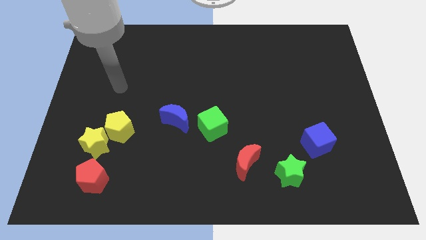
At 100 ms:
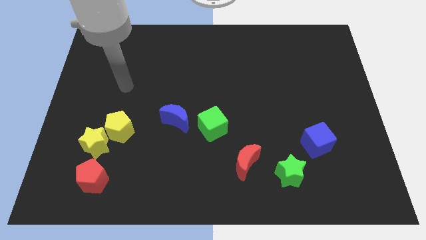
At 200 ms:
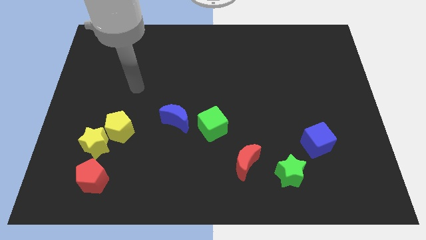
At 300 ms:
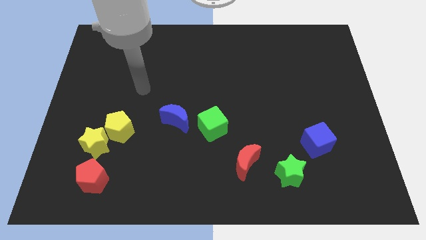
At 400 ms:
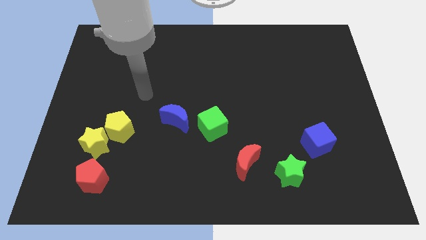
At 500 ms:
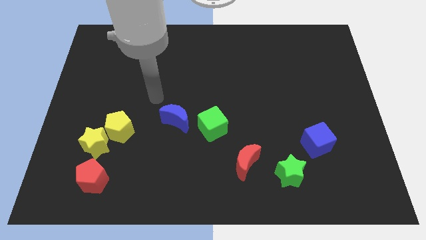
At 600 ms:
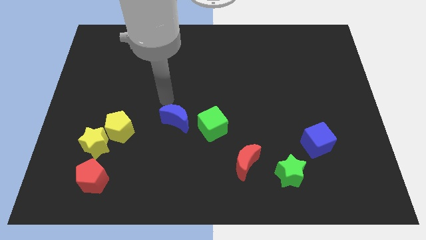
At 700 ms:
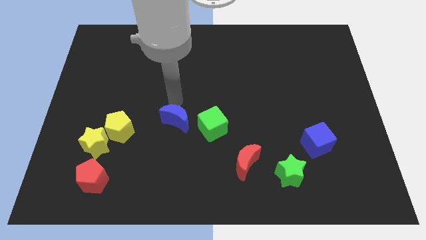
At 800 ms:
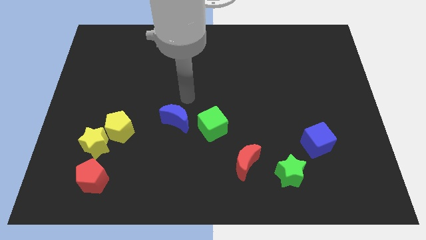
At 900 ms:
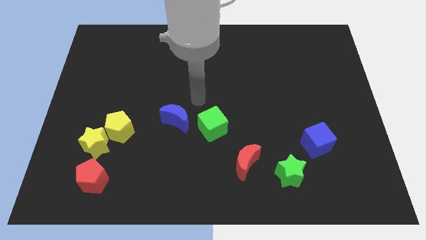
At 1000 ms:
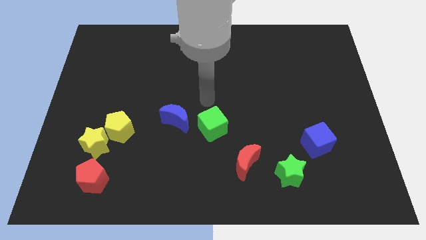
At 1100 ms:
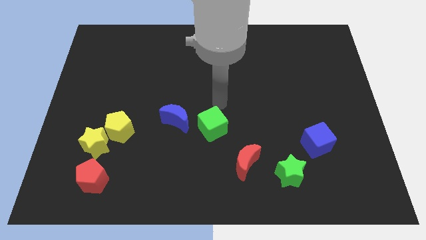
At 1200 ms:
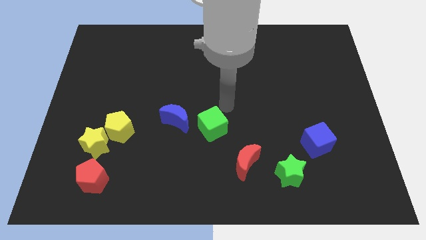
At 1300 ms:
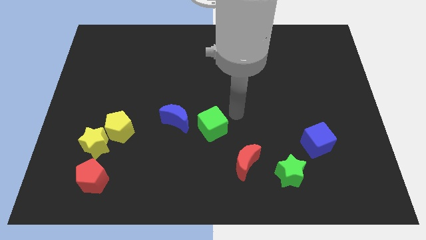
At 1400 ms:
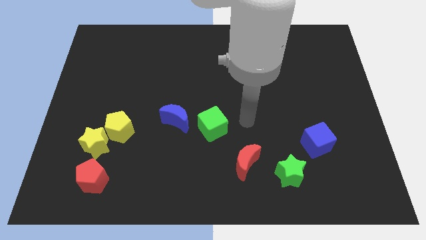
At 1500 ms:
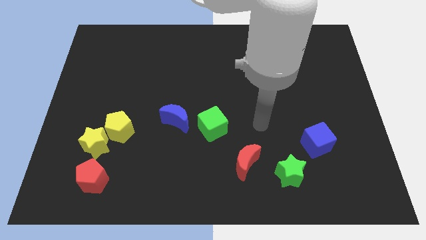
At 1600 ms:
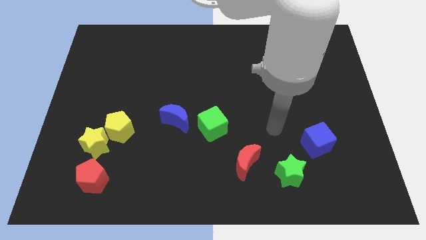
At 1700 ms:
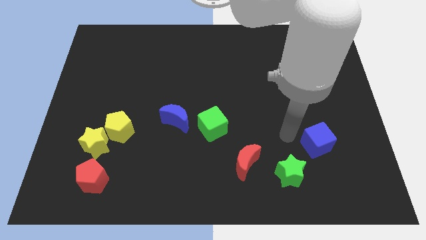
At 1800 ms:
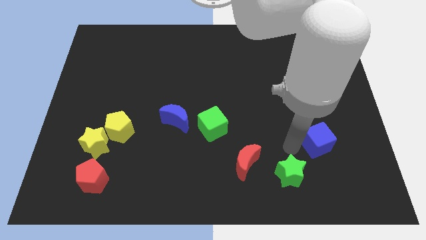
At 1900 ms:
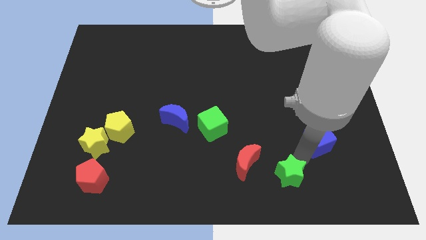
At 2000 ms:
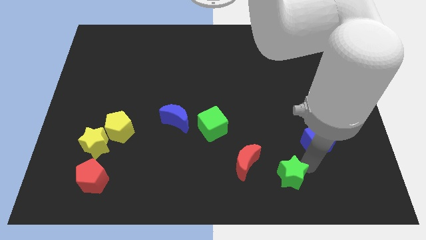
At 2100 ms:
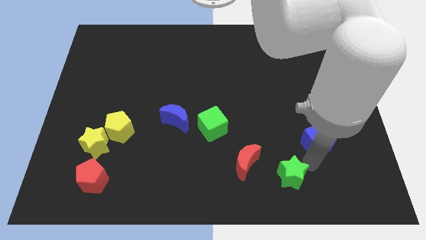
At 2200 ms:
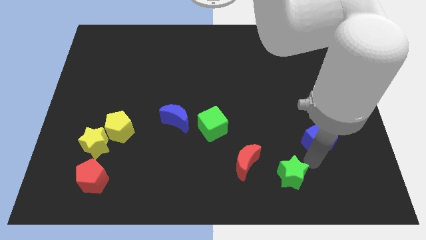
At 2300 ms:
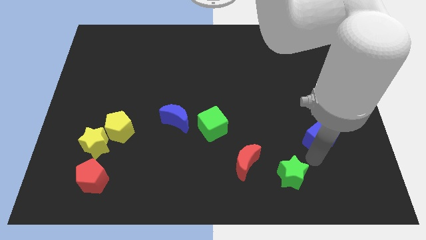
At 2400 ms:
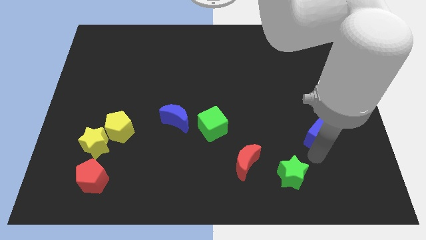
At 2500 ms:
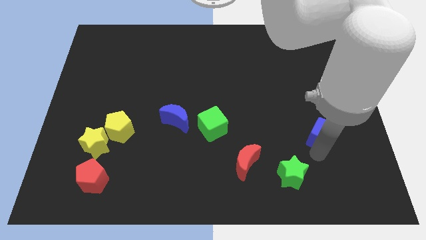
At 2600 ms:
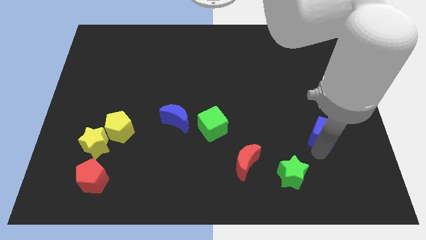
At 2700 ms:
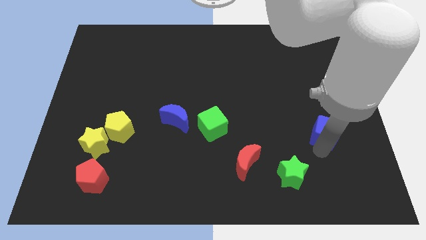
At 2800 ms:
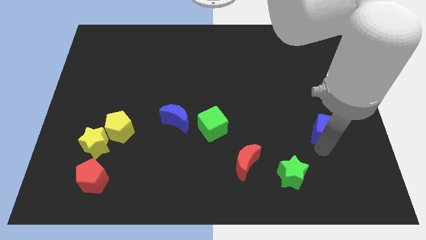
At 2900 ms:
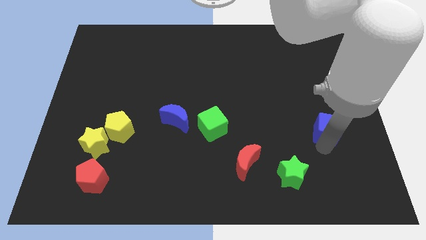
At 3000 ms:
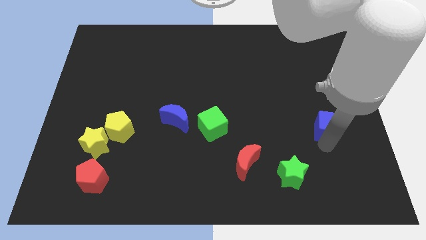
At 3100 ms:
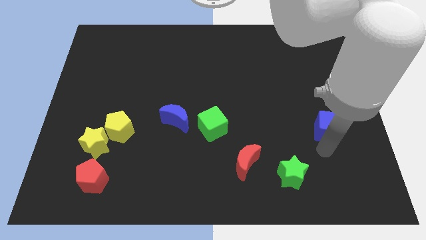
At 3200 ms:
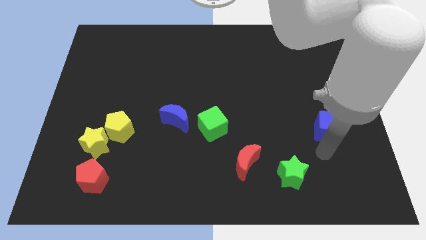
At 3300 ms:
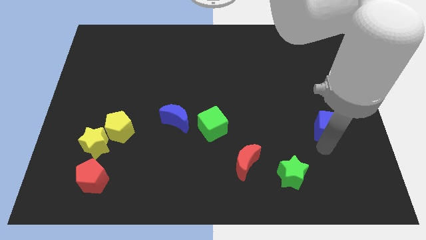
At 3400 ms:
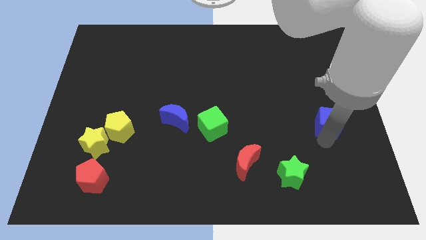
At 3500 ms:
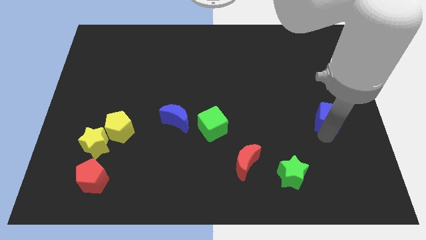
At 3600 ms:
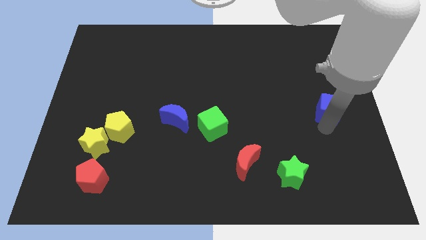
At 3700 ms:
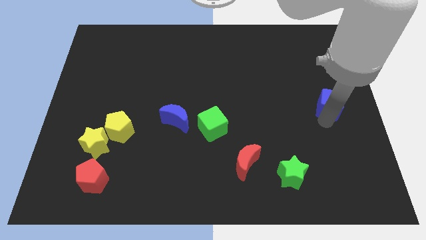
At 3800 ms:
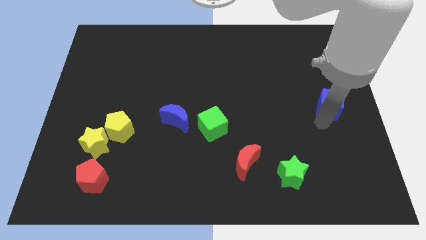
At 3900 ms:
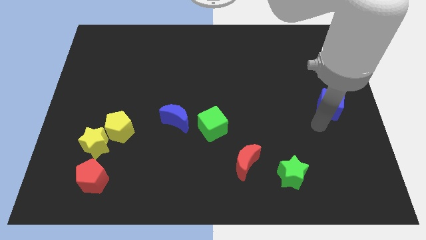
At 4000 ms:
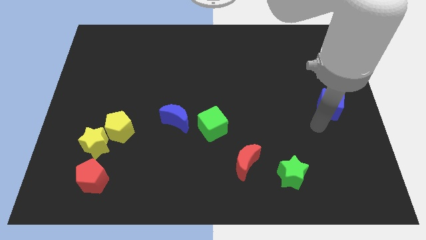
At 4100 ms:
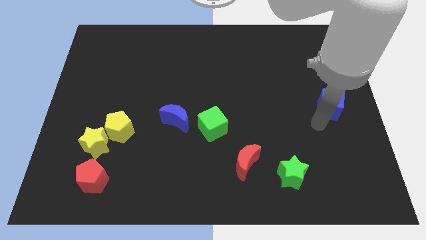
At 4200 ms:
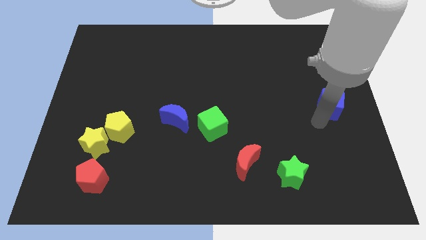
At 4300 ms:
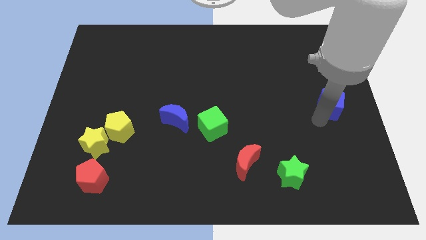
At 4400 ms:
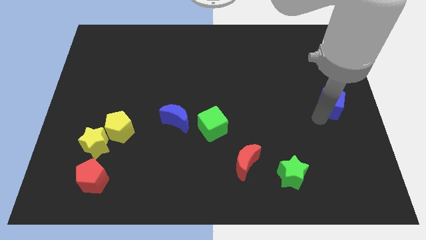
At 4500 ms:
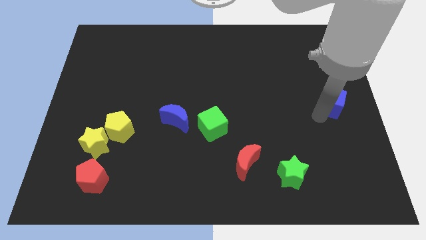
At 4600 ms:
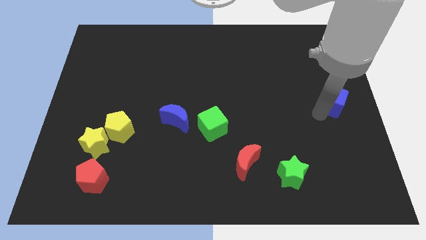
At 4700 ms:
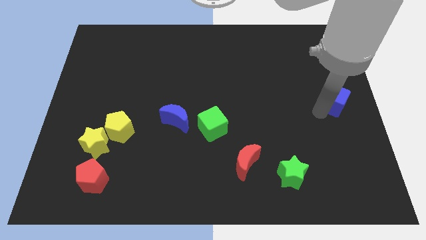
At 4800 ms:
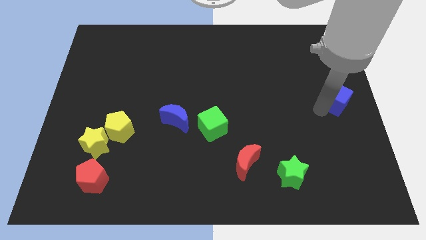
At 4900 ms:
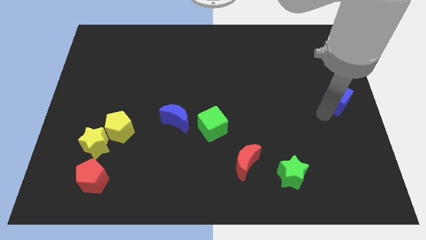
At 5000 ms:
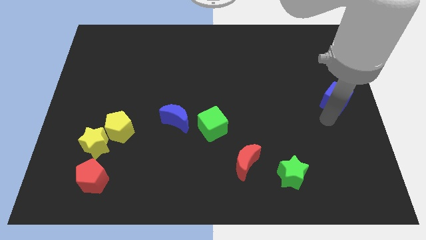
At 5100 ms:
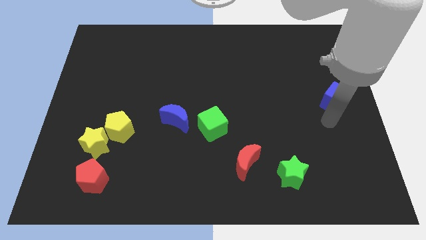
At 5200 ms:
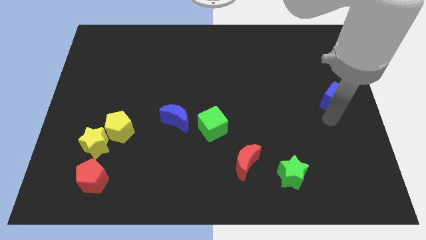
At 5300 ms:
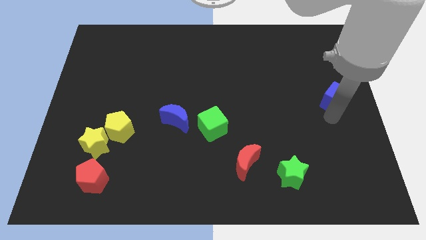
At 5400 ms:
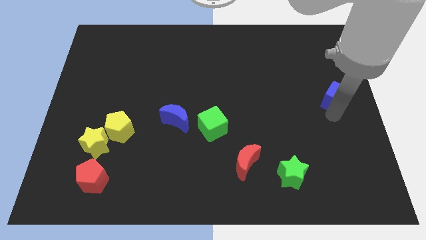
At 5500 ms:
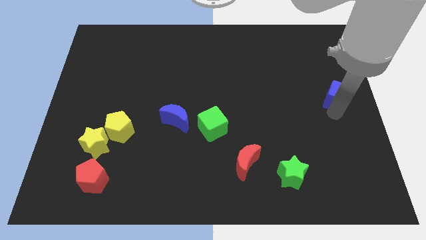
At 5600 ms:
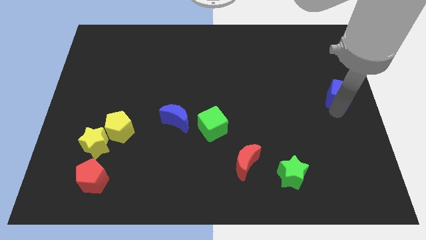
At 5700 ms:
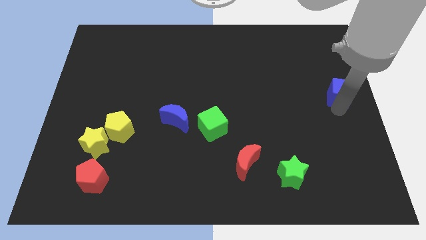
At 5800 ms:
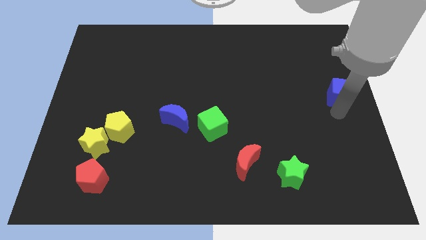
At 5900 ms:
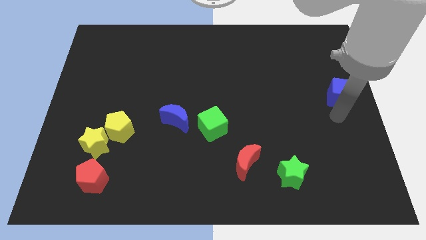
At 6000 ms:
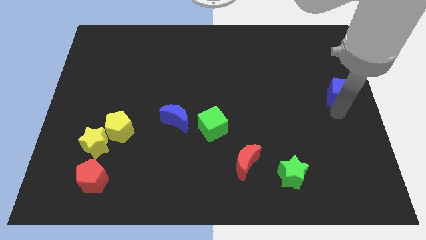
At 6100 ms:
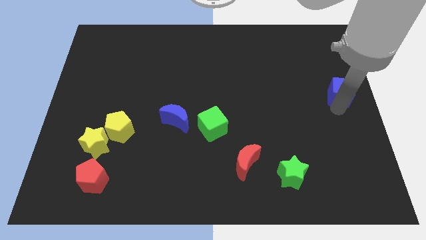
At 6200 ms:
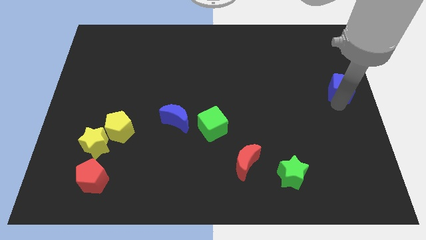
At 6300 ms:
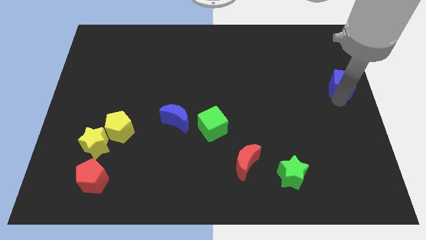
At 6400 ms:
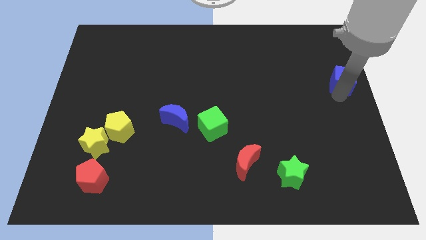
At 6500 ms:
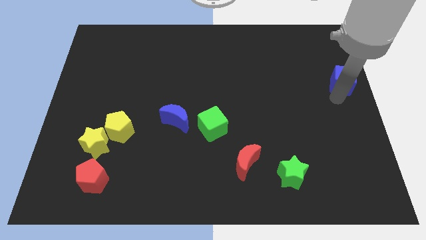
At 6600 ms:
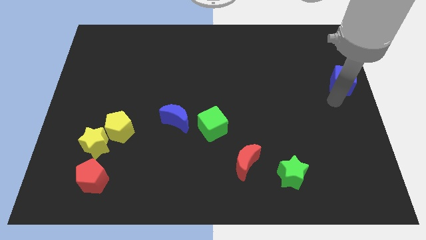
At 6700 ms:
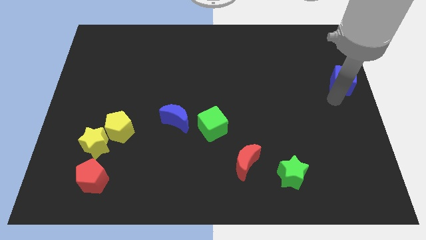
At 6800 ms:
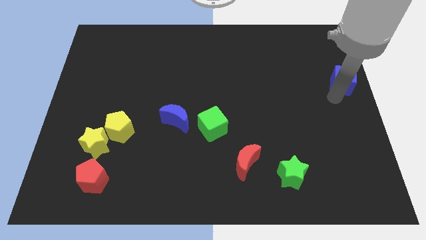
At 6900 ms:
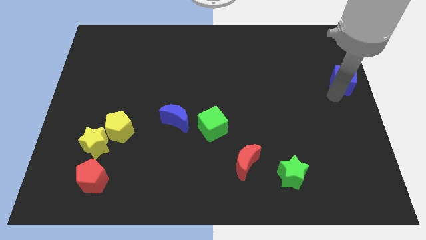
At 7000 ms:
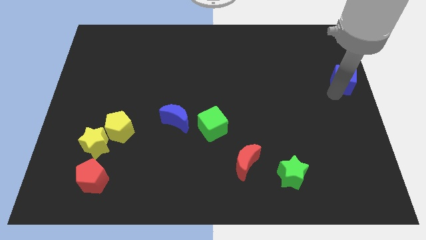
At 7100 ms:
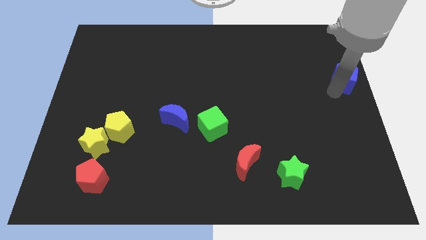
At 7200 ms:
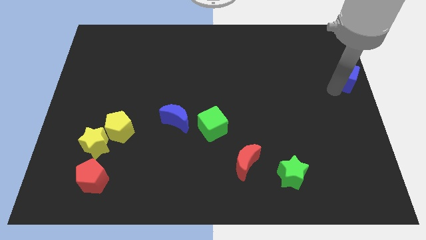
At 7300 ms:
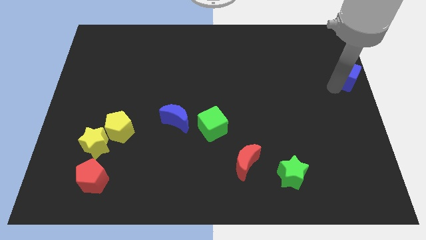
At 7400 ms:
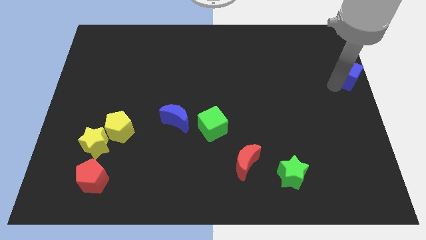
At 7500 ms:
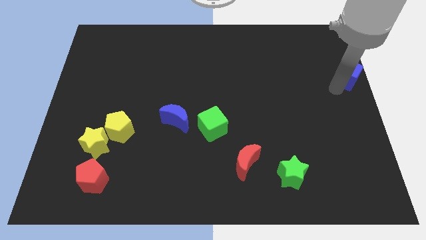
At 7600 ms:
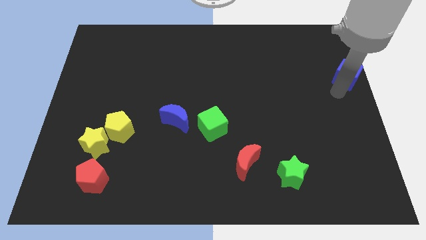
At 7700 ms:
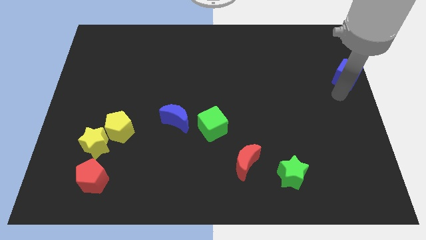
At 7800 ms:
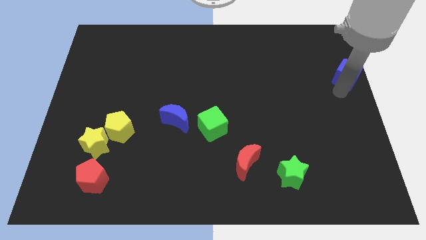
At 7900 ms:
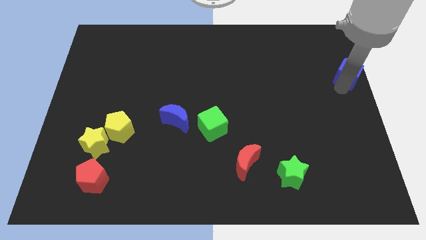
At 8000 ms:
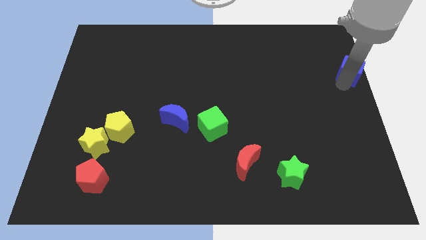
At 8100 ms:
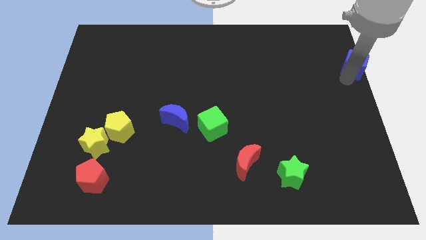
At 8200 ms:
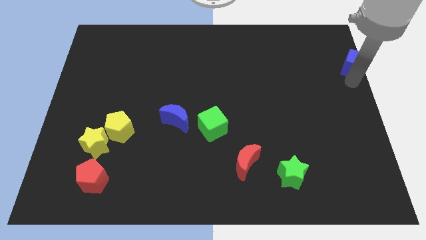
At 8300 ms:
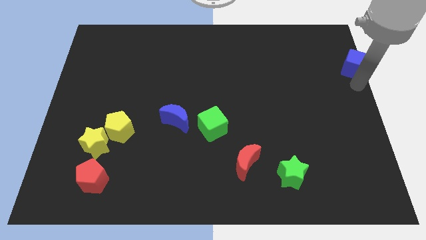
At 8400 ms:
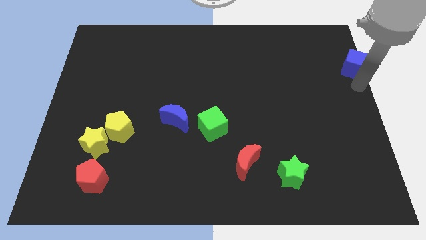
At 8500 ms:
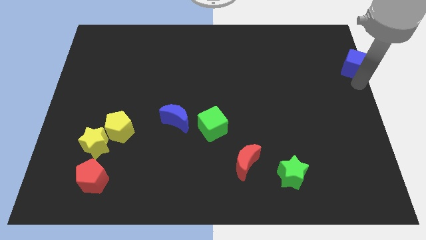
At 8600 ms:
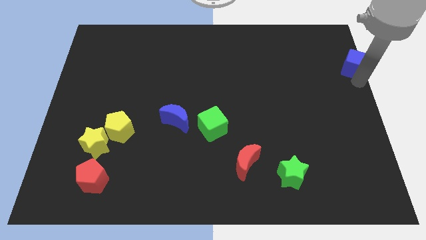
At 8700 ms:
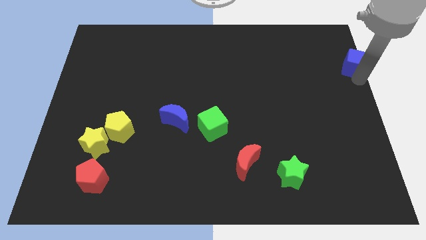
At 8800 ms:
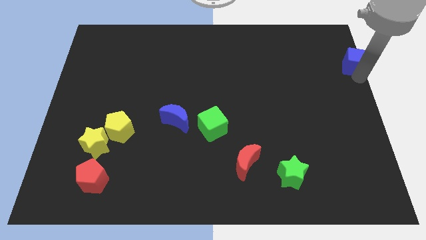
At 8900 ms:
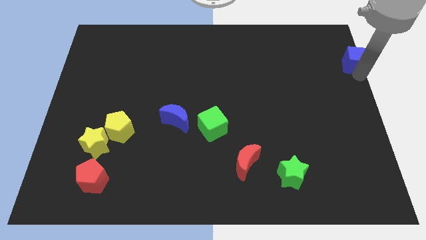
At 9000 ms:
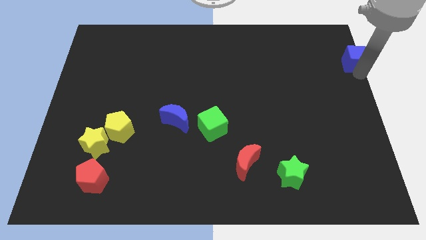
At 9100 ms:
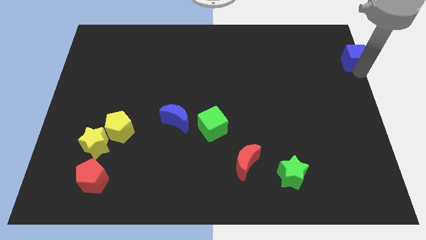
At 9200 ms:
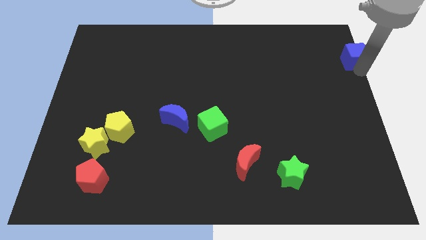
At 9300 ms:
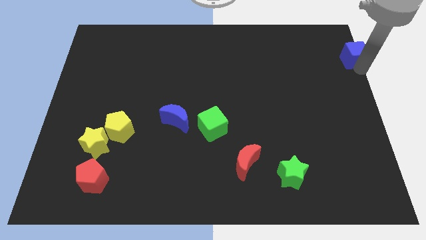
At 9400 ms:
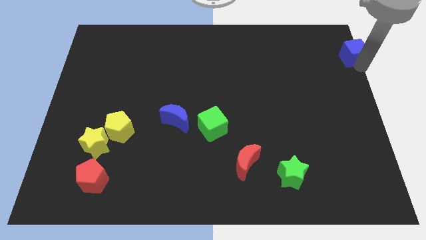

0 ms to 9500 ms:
move the blue cube to the top right of the board
